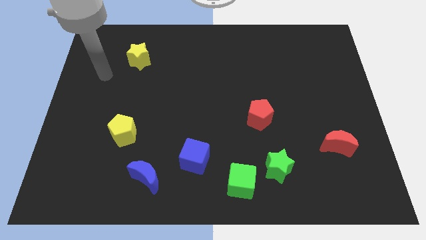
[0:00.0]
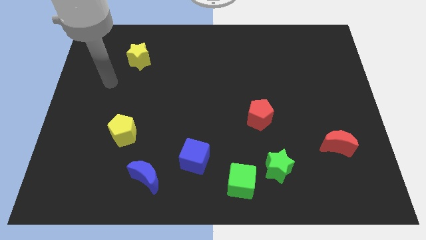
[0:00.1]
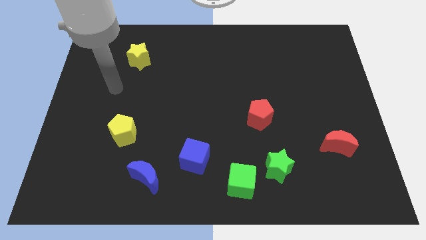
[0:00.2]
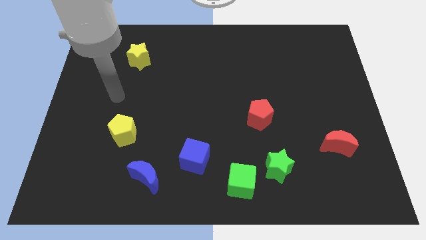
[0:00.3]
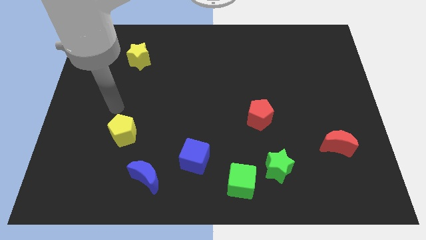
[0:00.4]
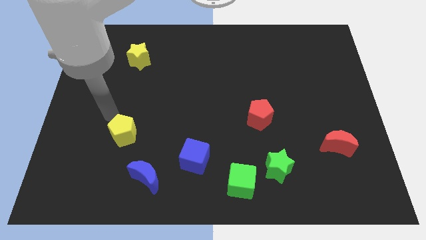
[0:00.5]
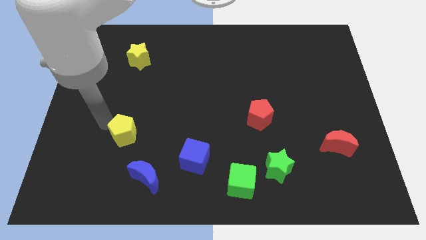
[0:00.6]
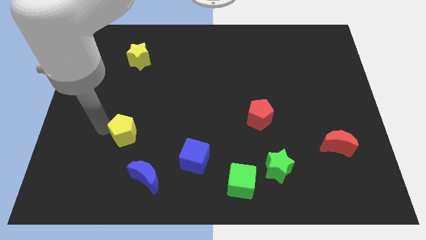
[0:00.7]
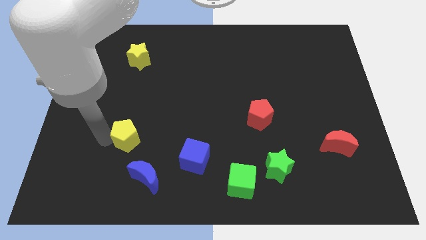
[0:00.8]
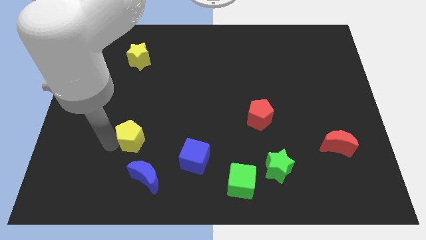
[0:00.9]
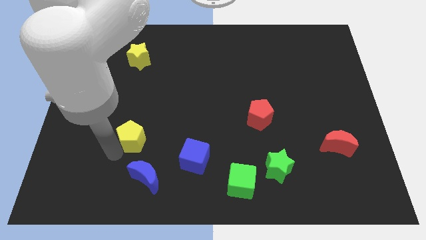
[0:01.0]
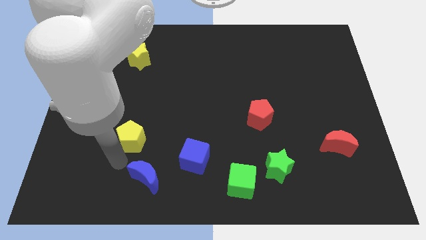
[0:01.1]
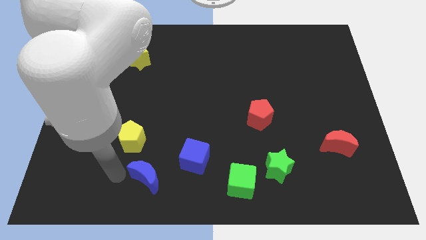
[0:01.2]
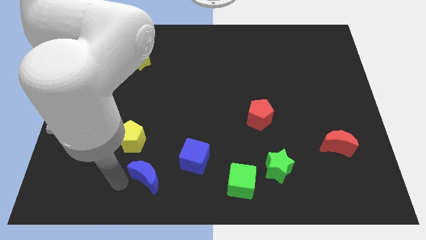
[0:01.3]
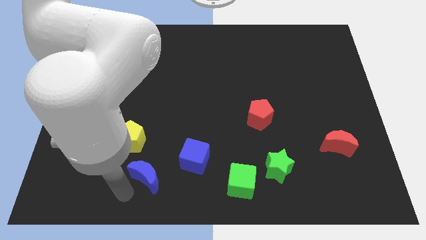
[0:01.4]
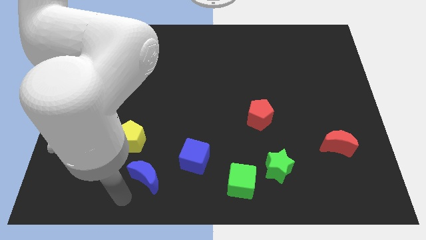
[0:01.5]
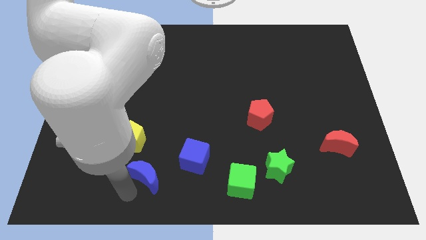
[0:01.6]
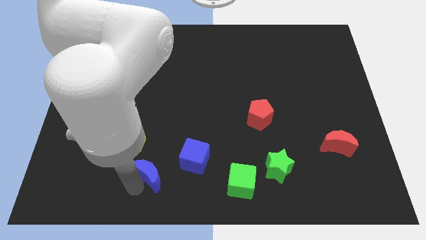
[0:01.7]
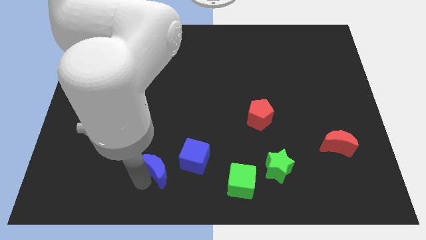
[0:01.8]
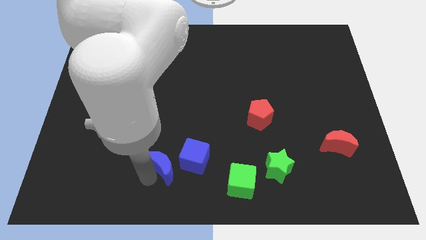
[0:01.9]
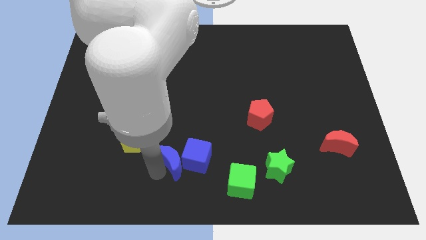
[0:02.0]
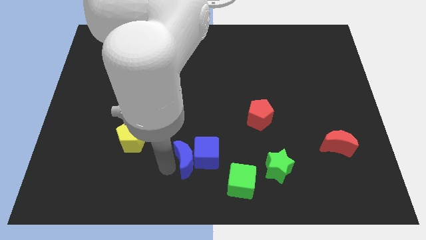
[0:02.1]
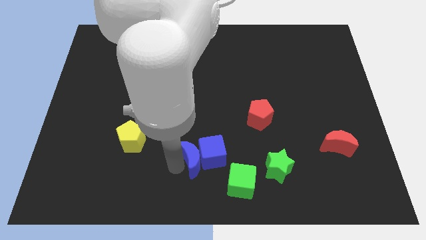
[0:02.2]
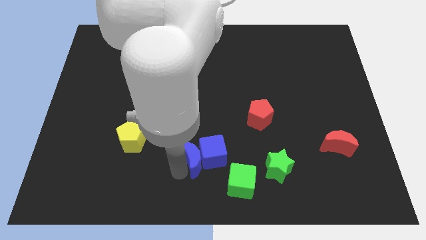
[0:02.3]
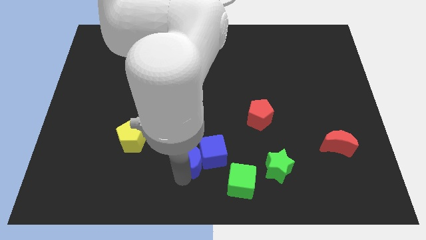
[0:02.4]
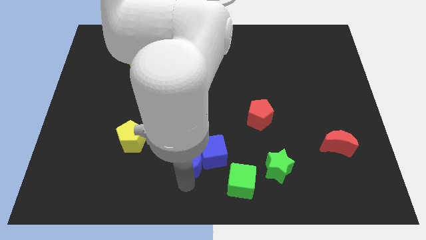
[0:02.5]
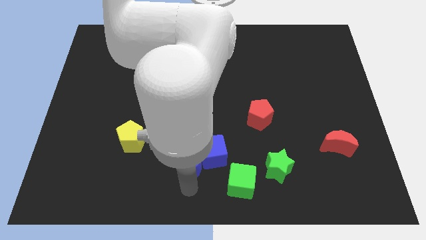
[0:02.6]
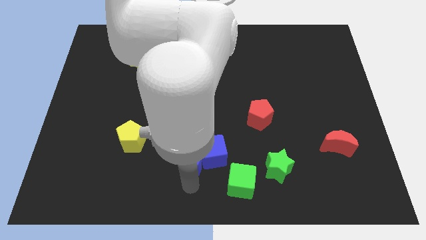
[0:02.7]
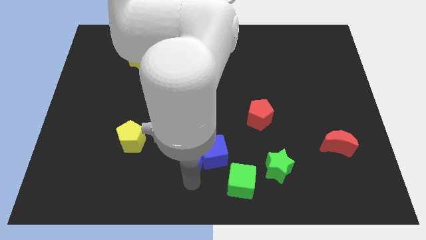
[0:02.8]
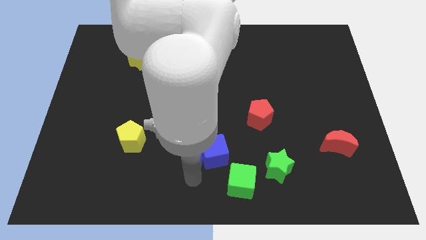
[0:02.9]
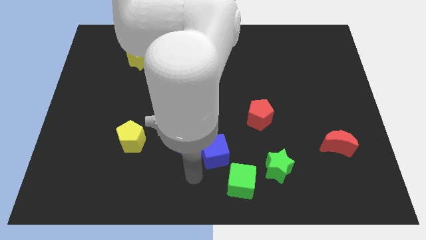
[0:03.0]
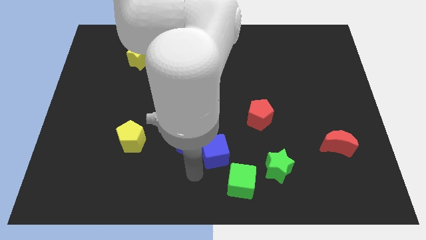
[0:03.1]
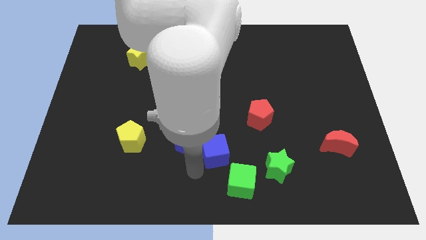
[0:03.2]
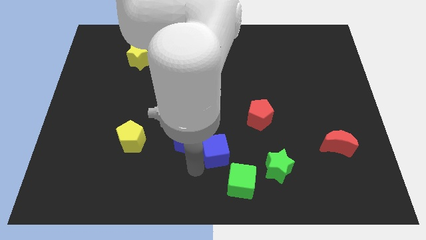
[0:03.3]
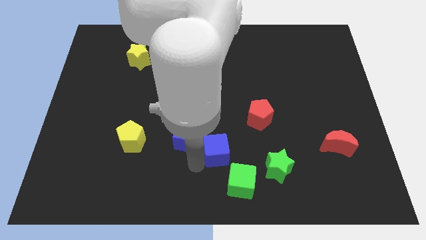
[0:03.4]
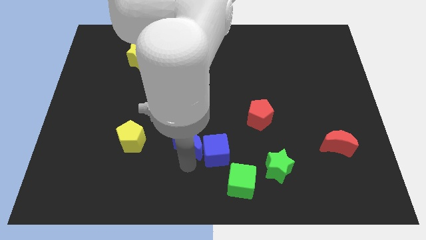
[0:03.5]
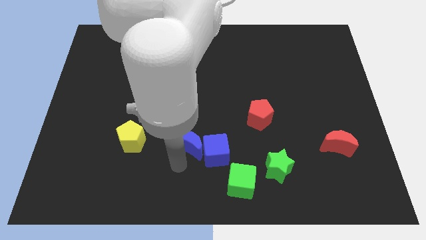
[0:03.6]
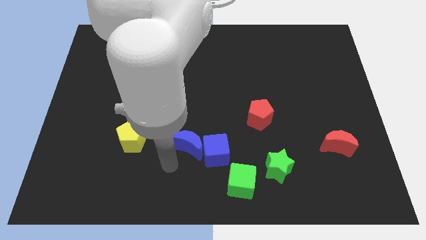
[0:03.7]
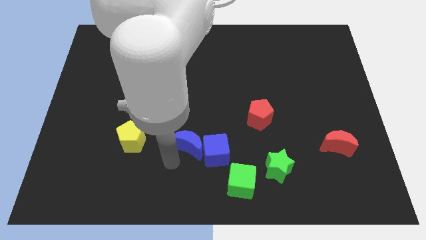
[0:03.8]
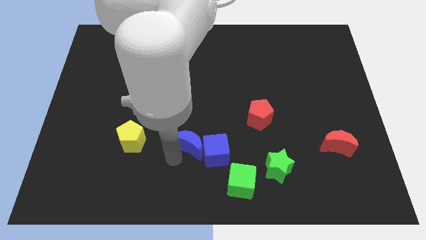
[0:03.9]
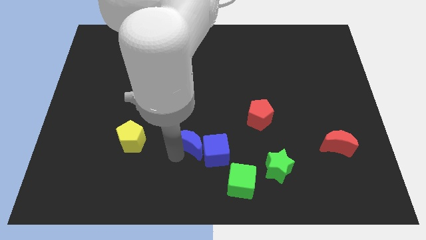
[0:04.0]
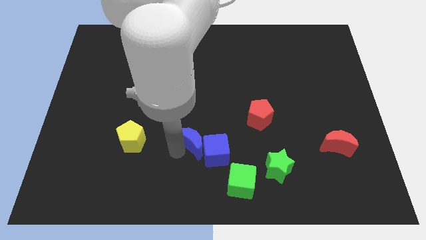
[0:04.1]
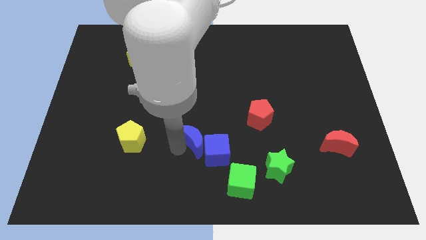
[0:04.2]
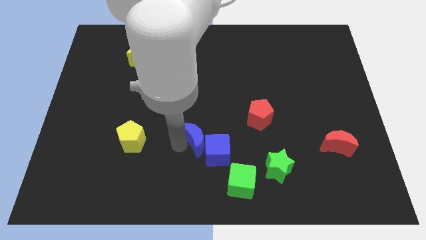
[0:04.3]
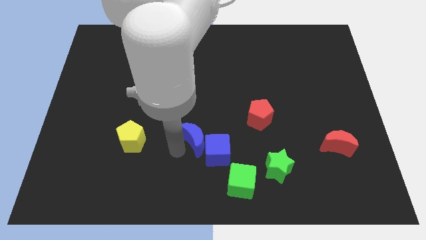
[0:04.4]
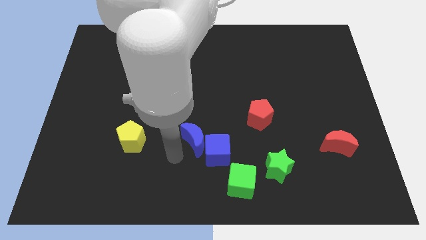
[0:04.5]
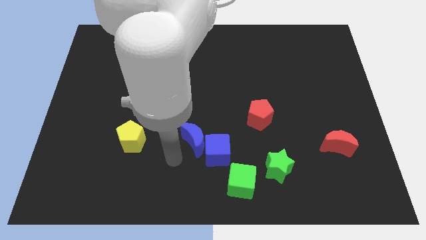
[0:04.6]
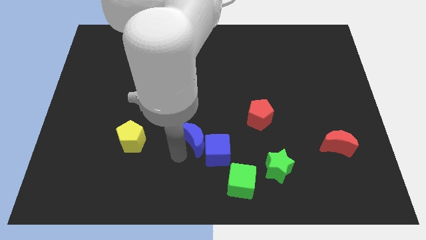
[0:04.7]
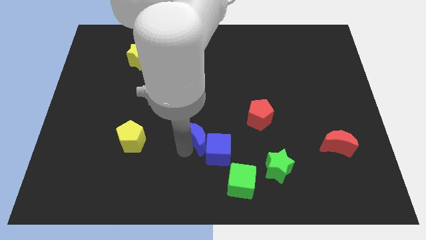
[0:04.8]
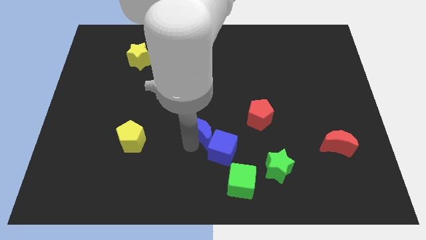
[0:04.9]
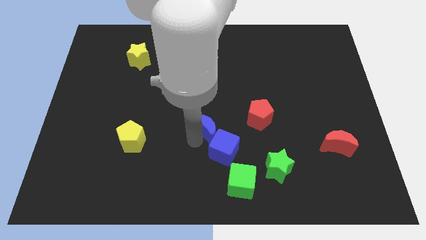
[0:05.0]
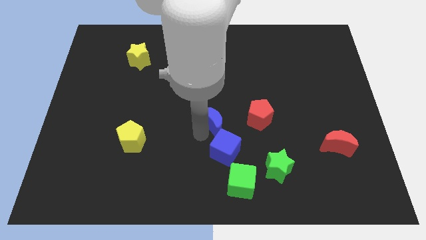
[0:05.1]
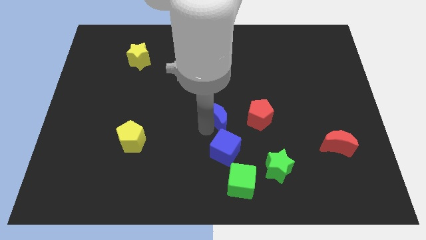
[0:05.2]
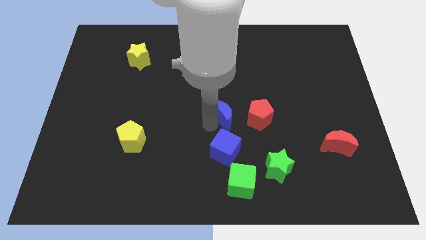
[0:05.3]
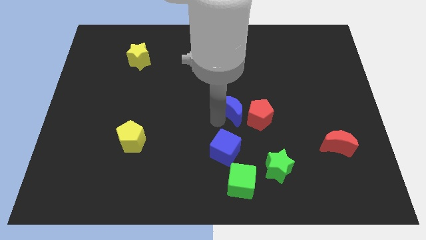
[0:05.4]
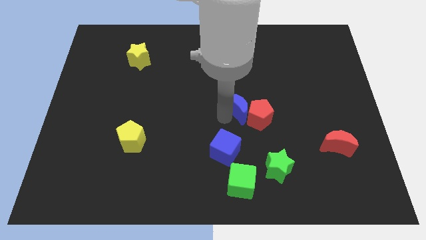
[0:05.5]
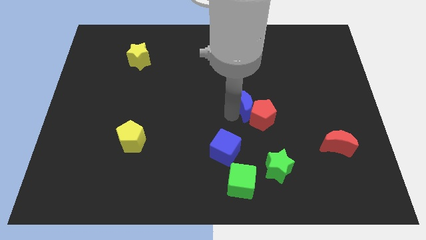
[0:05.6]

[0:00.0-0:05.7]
put the blue moon above the red pentagon

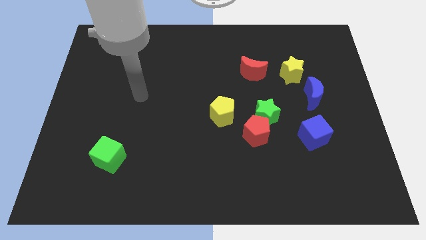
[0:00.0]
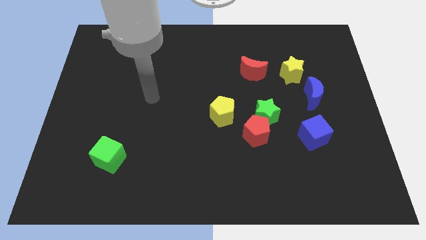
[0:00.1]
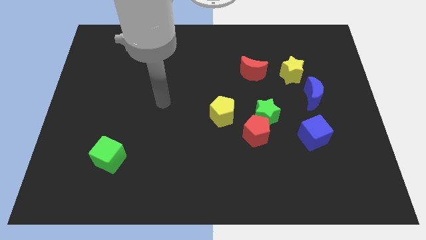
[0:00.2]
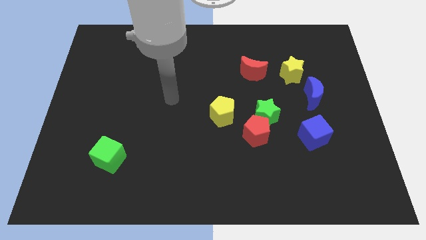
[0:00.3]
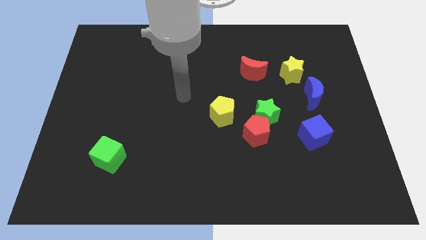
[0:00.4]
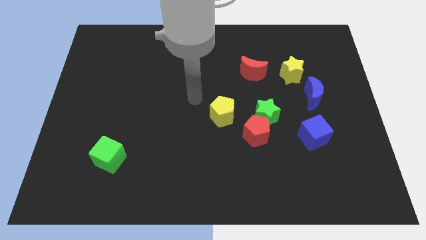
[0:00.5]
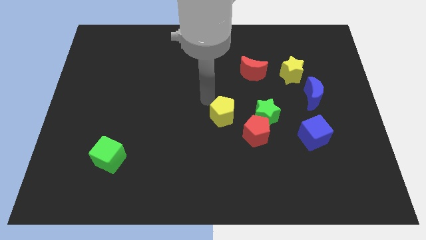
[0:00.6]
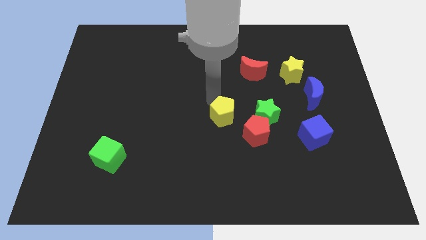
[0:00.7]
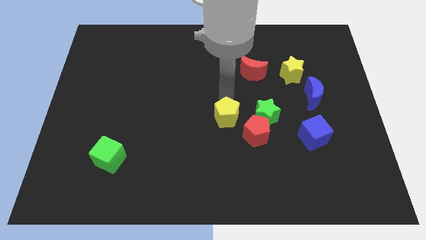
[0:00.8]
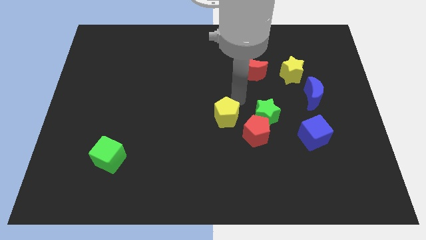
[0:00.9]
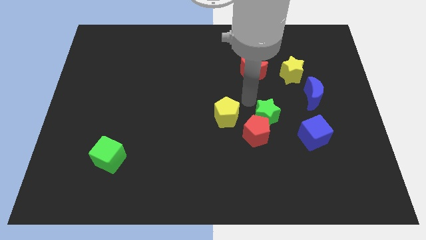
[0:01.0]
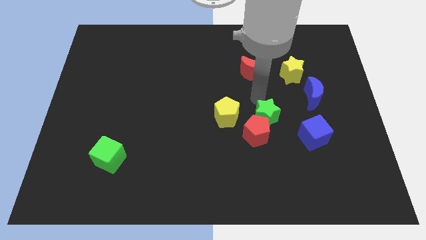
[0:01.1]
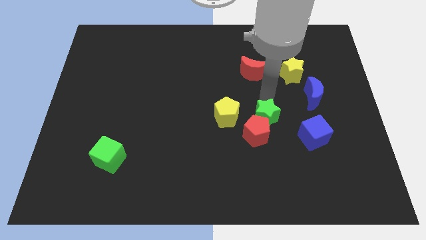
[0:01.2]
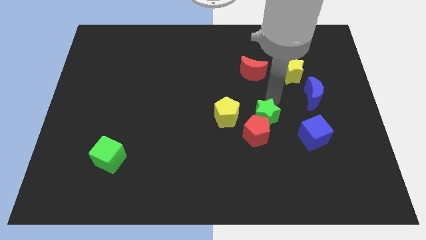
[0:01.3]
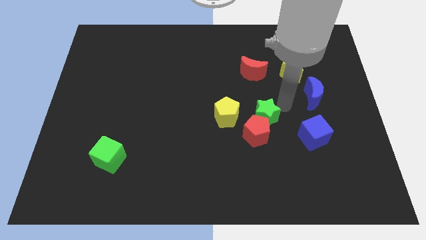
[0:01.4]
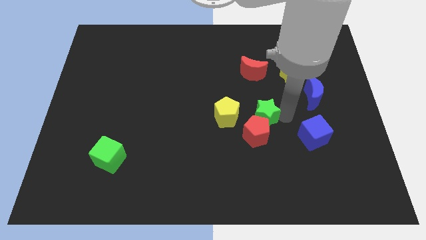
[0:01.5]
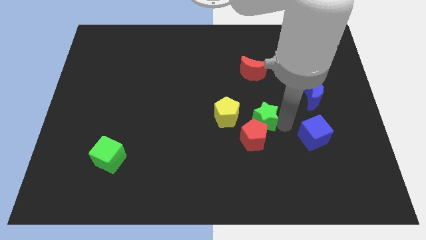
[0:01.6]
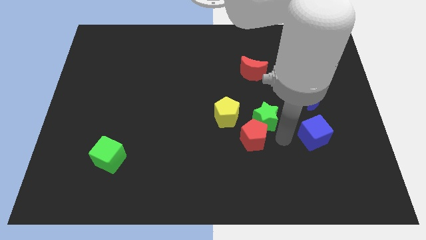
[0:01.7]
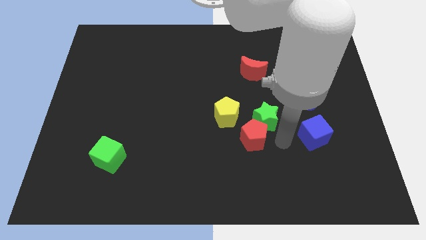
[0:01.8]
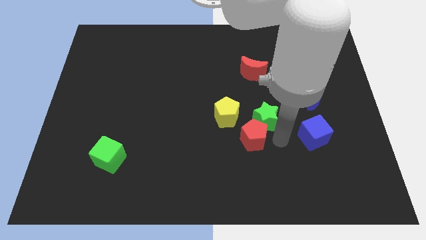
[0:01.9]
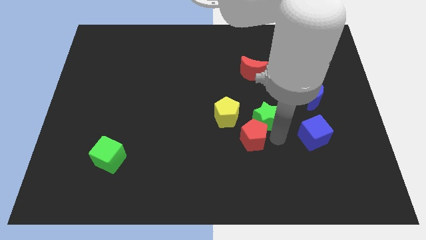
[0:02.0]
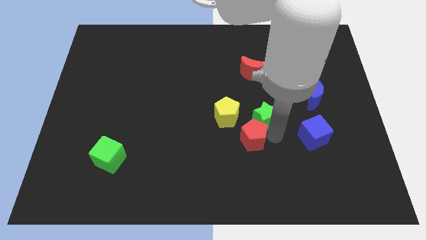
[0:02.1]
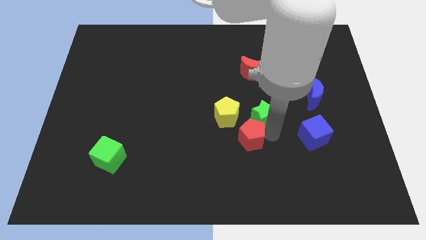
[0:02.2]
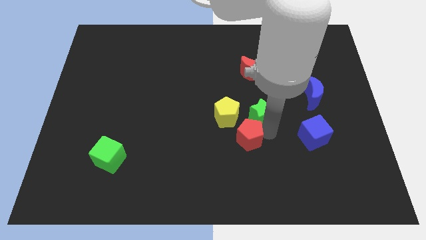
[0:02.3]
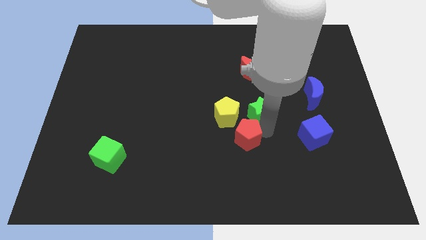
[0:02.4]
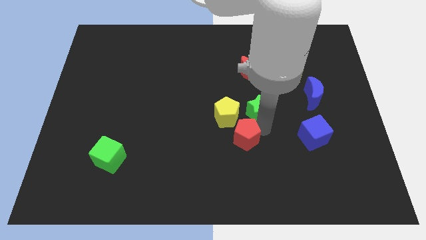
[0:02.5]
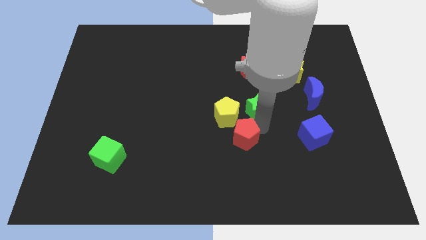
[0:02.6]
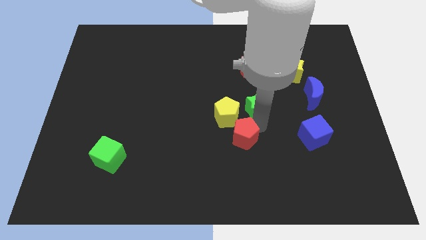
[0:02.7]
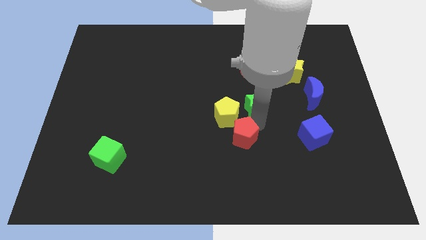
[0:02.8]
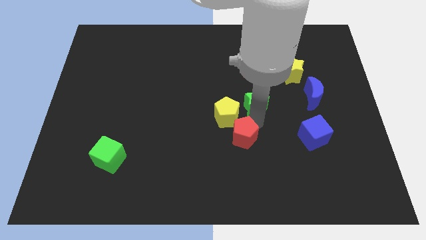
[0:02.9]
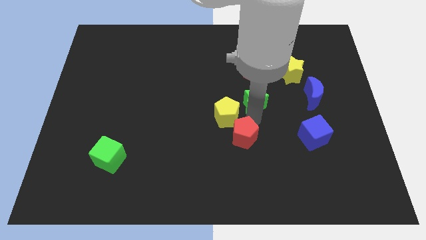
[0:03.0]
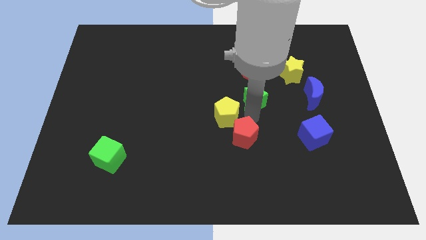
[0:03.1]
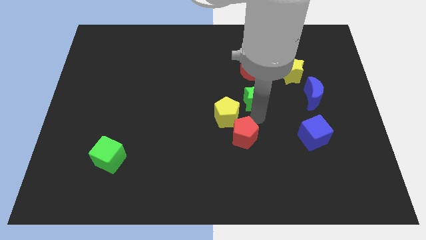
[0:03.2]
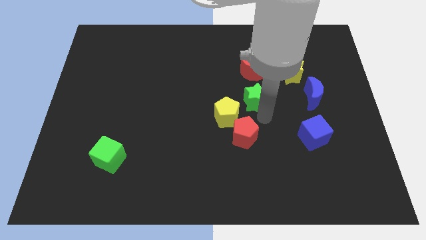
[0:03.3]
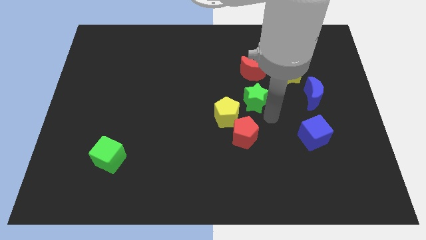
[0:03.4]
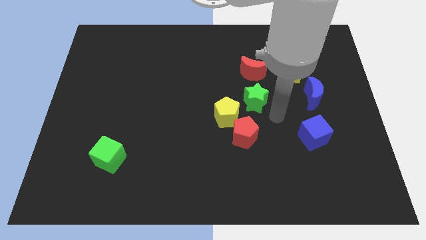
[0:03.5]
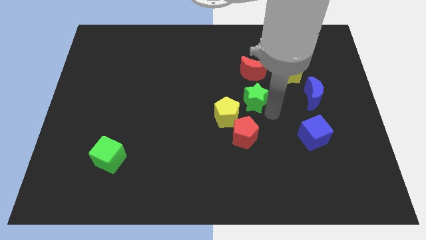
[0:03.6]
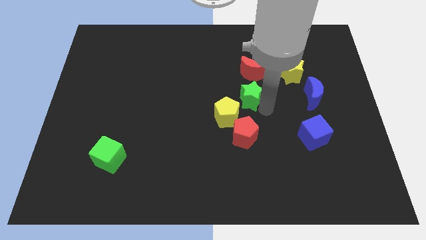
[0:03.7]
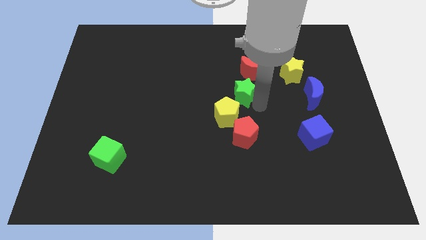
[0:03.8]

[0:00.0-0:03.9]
slide the green star diagonally down and to the left of the red moon
